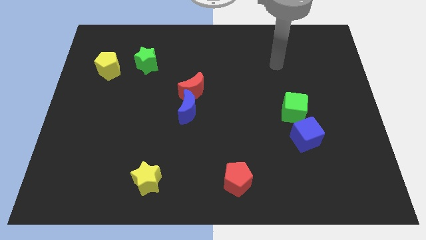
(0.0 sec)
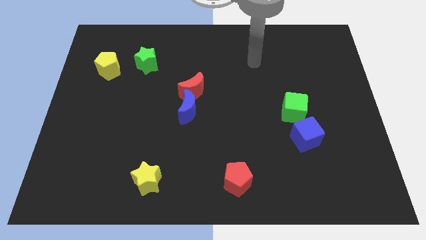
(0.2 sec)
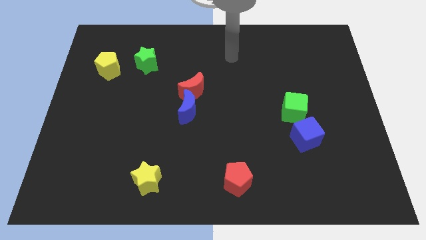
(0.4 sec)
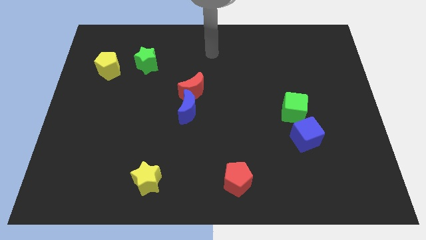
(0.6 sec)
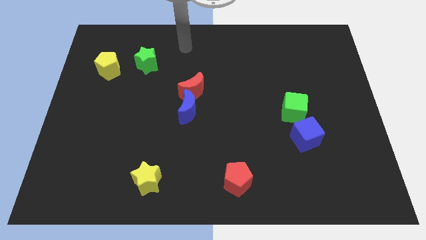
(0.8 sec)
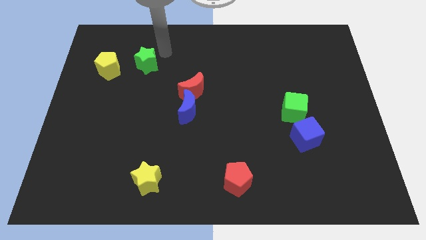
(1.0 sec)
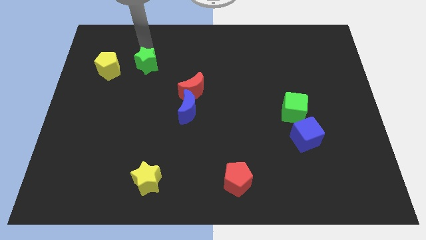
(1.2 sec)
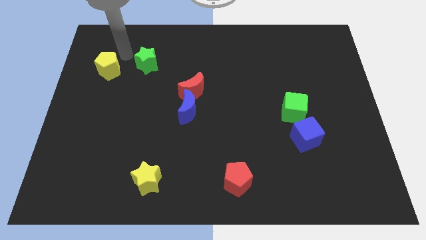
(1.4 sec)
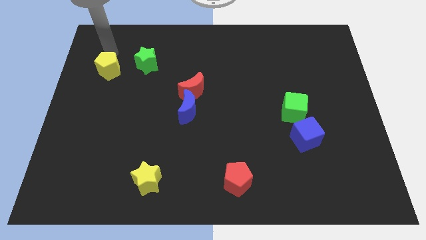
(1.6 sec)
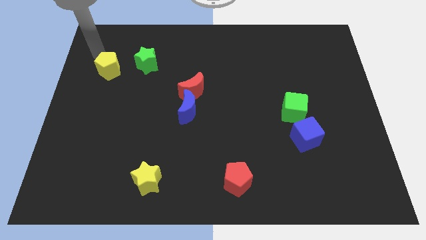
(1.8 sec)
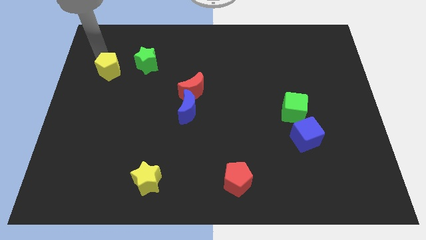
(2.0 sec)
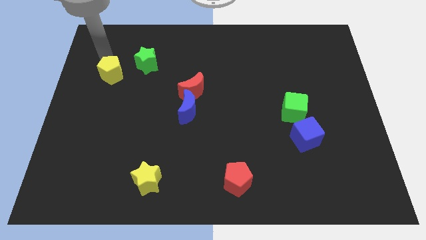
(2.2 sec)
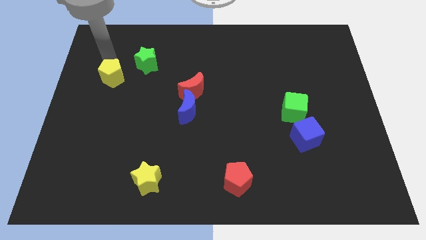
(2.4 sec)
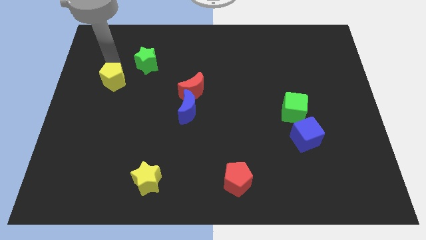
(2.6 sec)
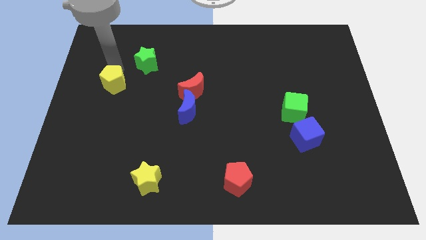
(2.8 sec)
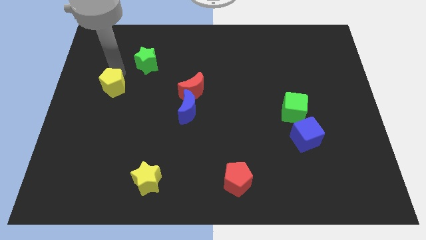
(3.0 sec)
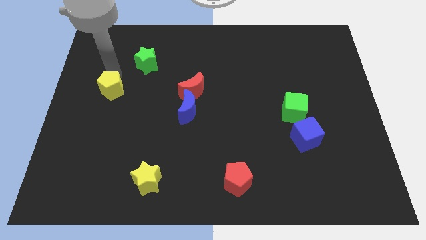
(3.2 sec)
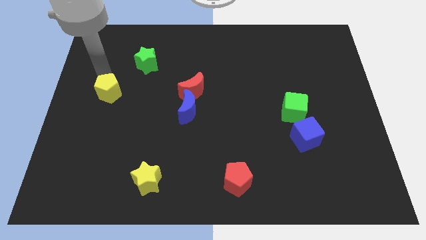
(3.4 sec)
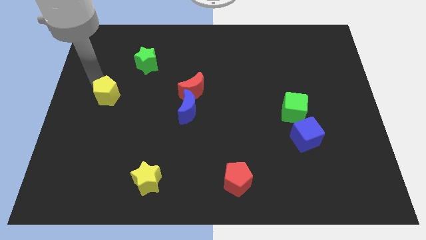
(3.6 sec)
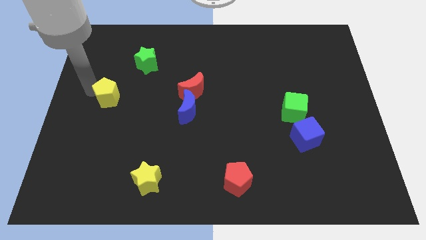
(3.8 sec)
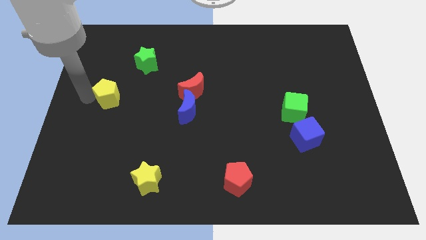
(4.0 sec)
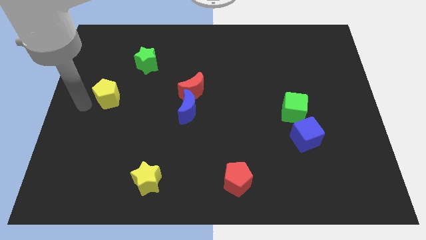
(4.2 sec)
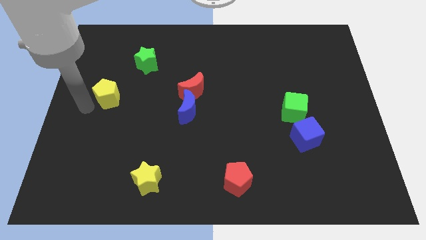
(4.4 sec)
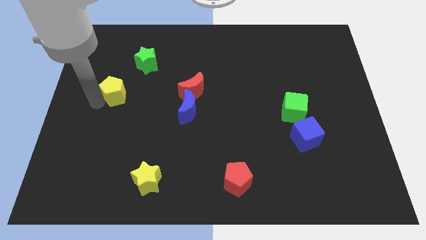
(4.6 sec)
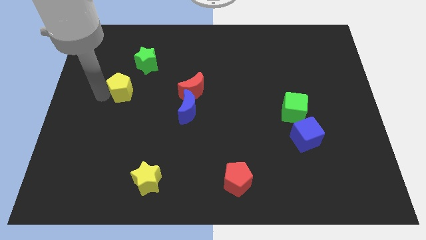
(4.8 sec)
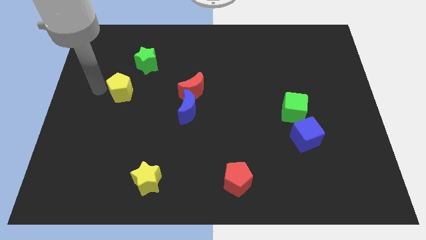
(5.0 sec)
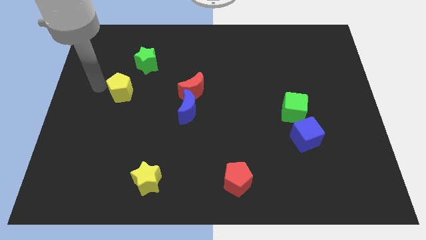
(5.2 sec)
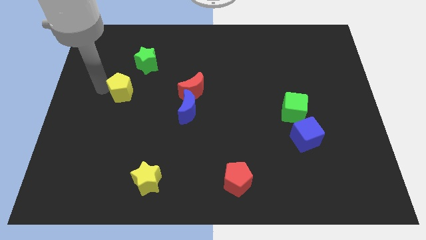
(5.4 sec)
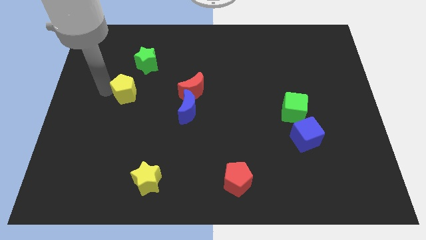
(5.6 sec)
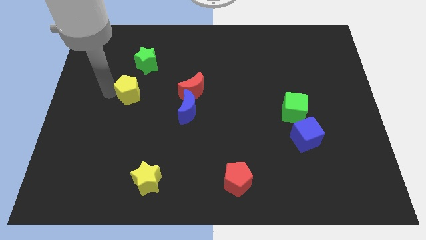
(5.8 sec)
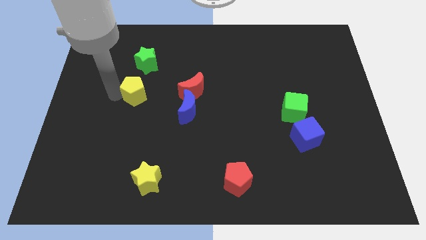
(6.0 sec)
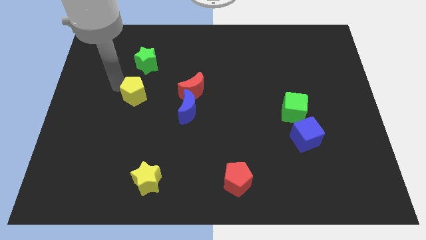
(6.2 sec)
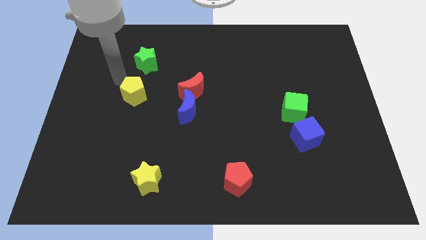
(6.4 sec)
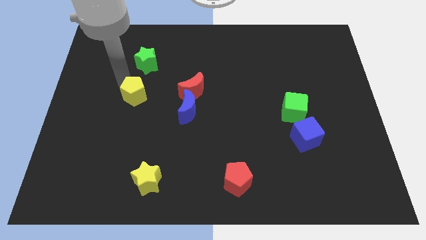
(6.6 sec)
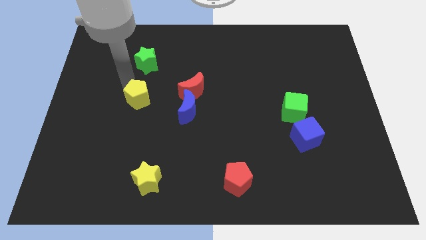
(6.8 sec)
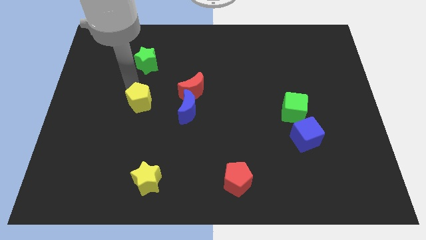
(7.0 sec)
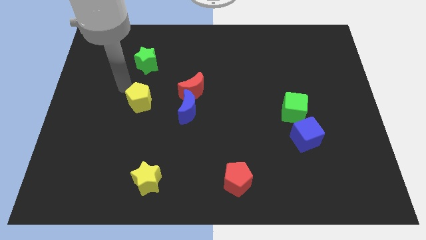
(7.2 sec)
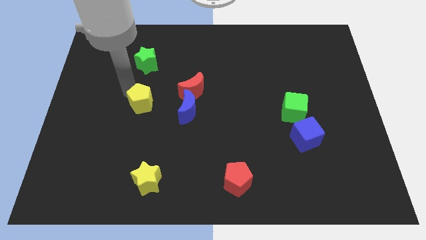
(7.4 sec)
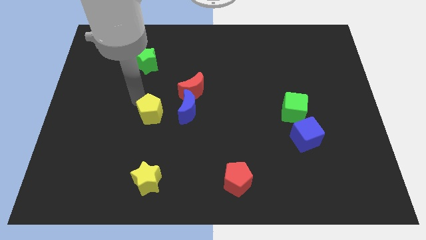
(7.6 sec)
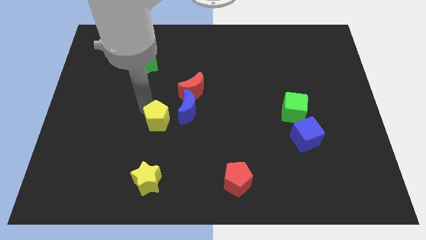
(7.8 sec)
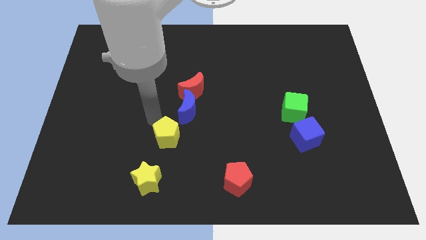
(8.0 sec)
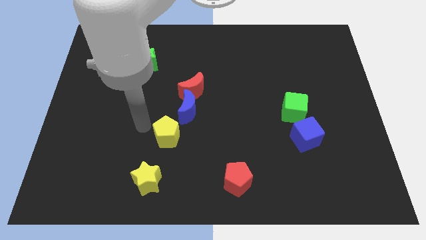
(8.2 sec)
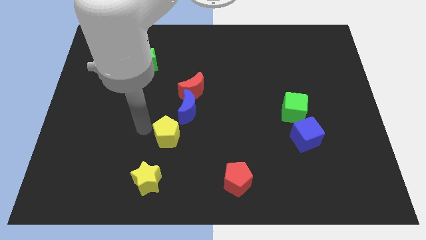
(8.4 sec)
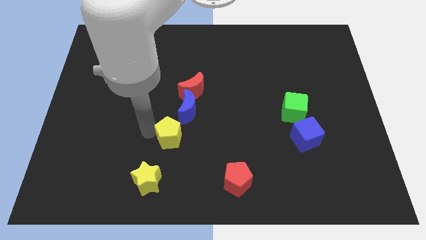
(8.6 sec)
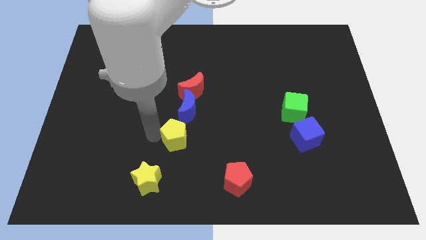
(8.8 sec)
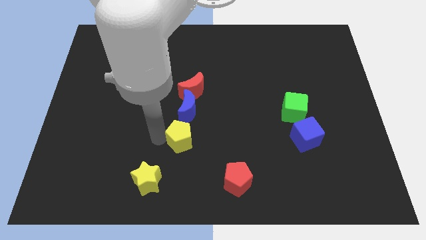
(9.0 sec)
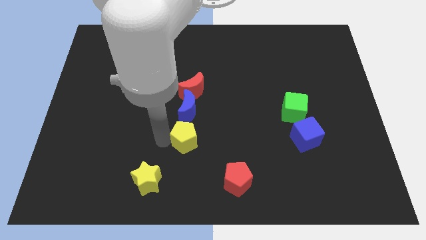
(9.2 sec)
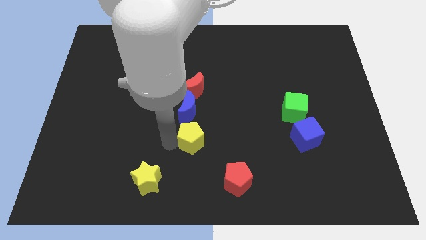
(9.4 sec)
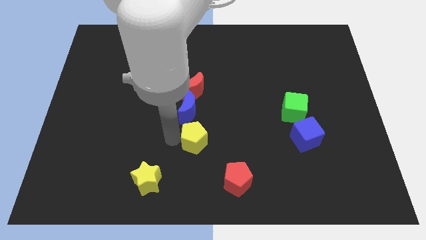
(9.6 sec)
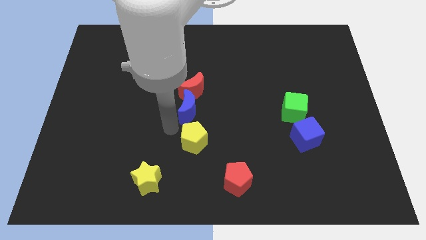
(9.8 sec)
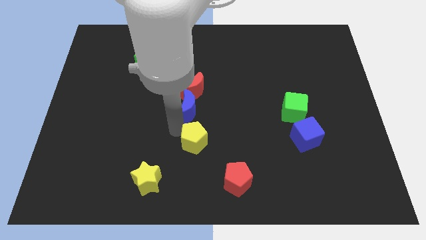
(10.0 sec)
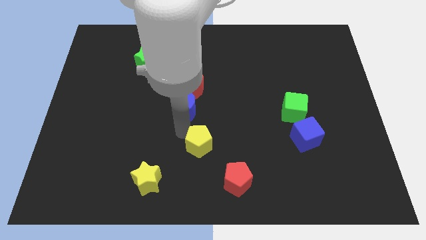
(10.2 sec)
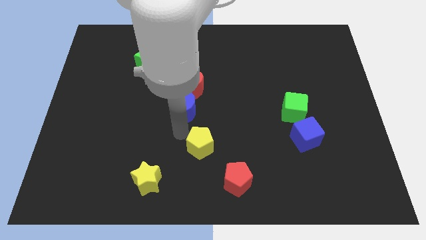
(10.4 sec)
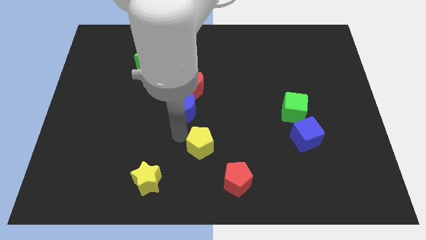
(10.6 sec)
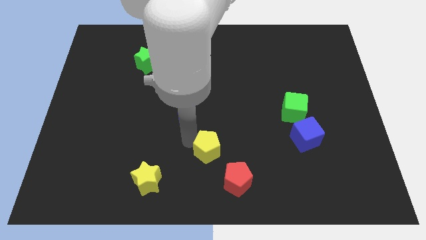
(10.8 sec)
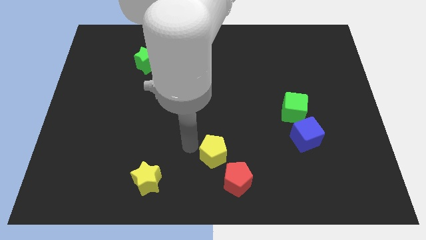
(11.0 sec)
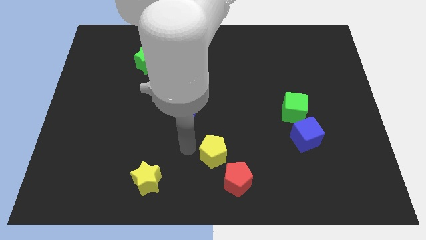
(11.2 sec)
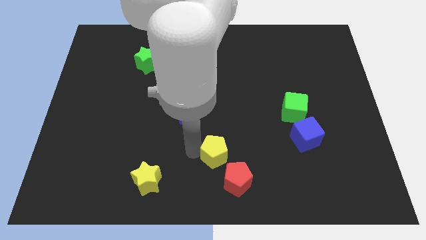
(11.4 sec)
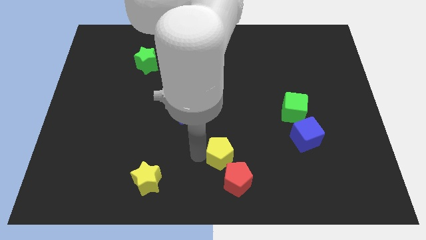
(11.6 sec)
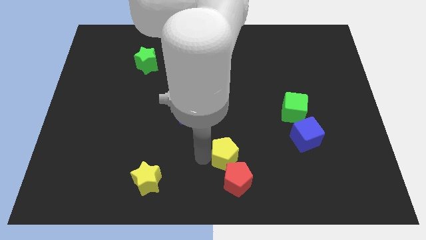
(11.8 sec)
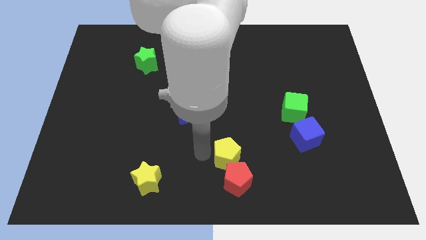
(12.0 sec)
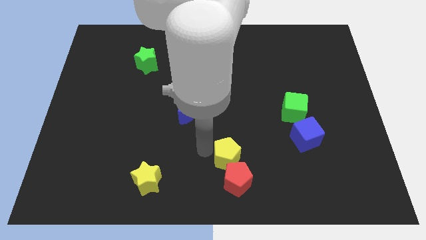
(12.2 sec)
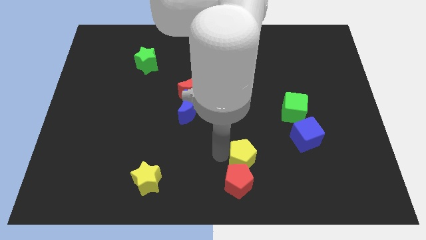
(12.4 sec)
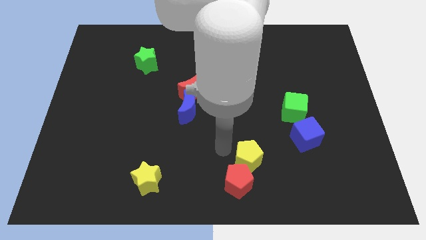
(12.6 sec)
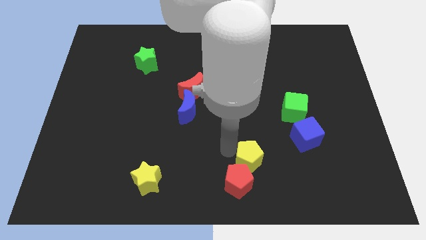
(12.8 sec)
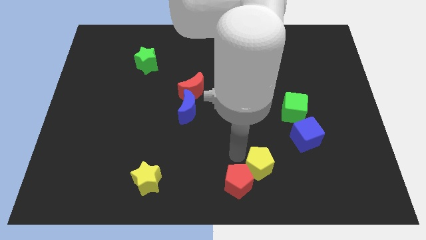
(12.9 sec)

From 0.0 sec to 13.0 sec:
put the yellow pentagon to the right of the red pentagon

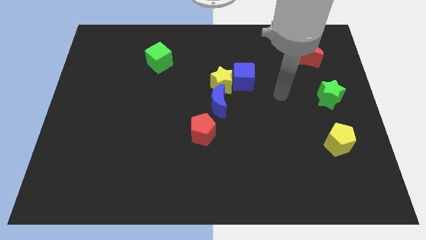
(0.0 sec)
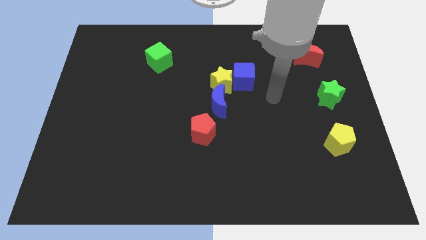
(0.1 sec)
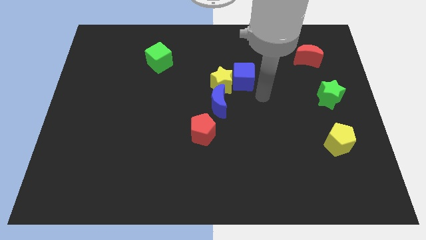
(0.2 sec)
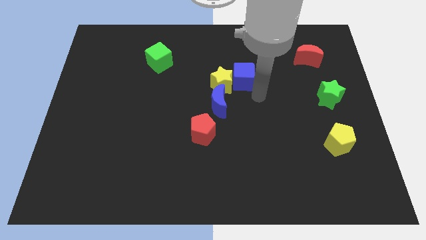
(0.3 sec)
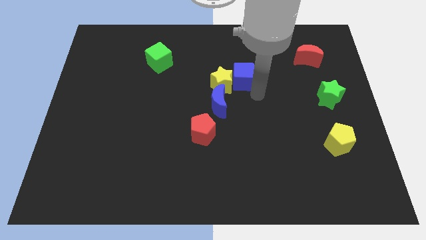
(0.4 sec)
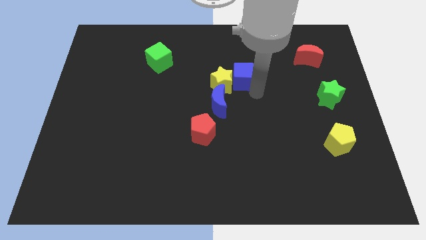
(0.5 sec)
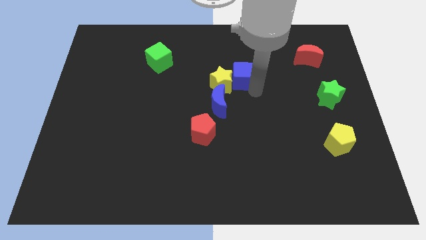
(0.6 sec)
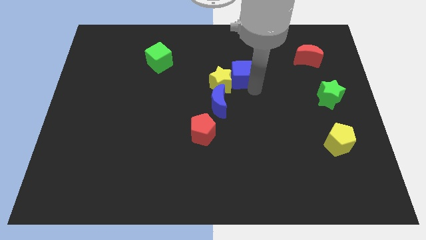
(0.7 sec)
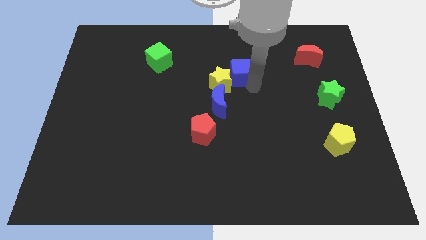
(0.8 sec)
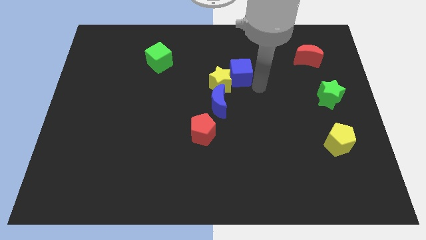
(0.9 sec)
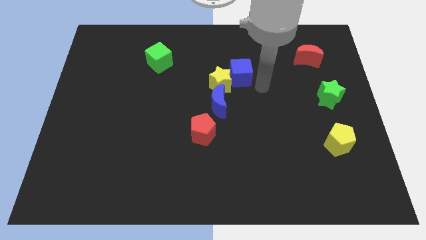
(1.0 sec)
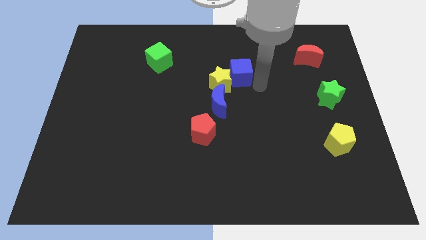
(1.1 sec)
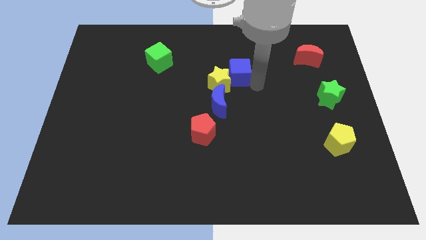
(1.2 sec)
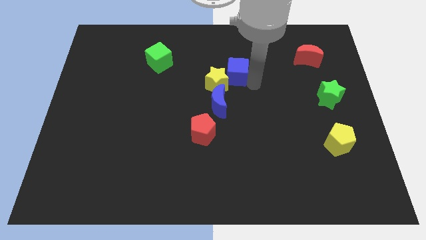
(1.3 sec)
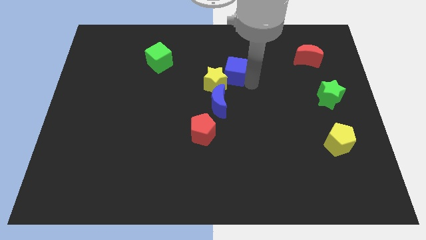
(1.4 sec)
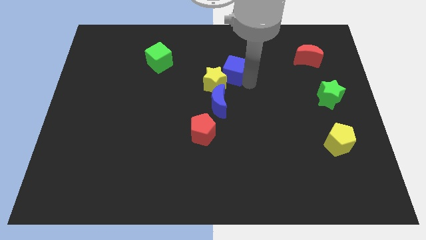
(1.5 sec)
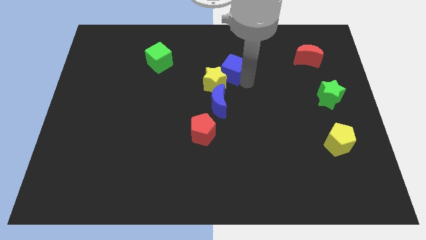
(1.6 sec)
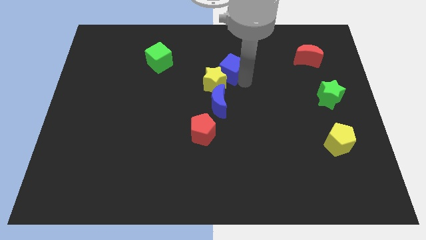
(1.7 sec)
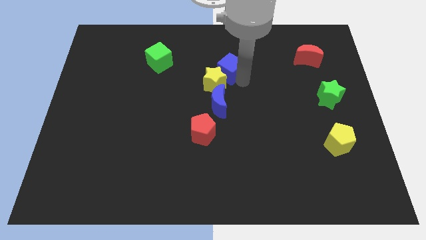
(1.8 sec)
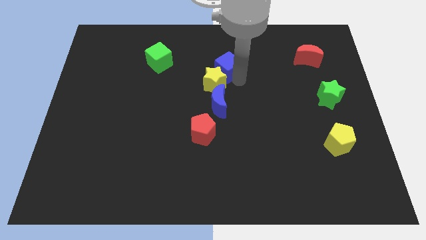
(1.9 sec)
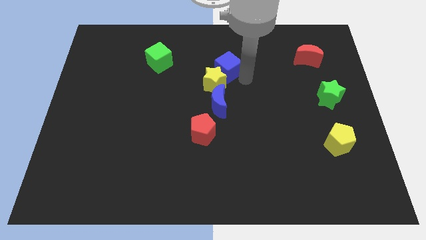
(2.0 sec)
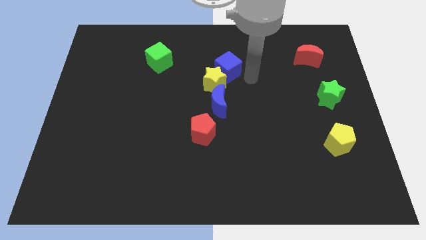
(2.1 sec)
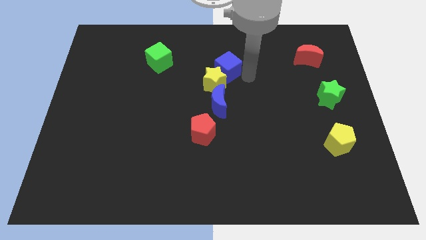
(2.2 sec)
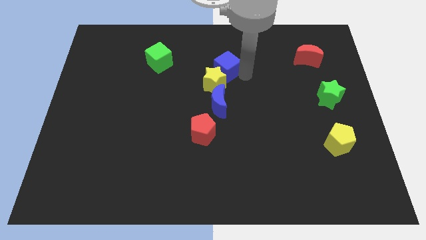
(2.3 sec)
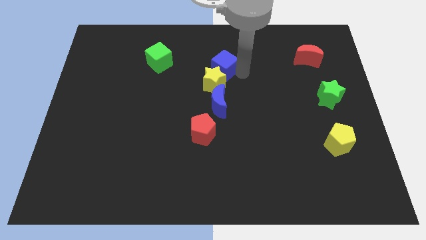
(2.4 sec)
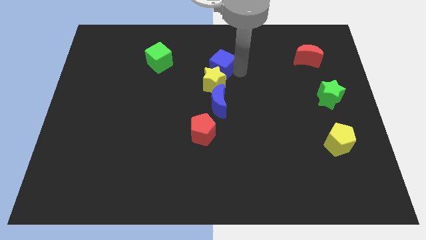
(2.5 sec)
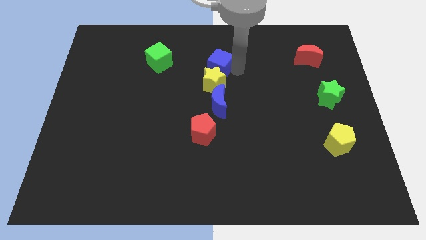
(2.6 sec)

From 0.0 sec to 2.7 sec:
move the blue cube right of the green cube
